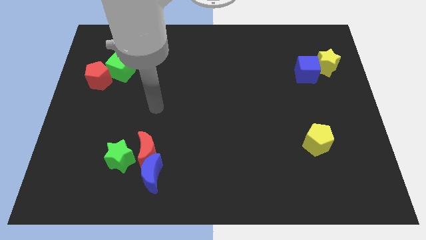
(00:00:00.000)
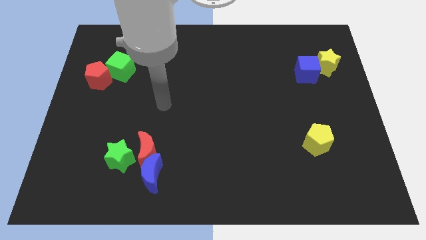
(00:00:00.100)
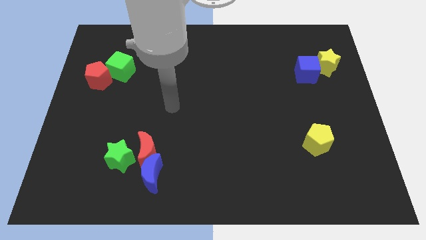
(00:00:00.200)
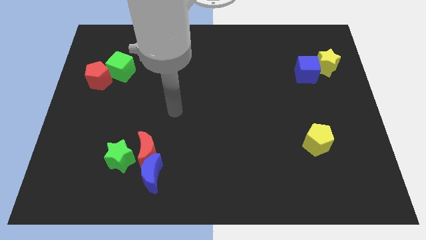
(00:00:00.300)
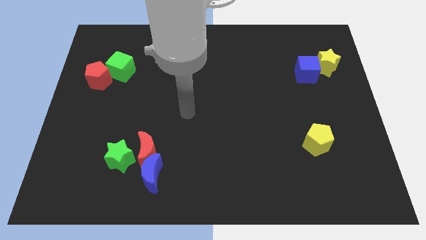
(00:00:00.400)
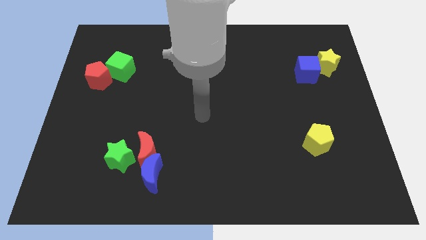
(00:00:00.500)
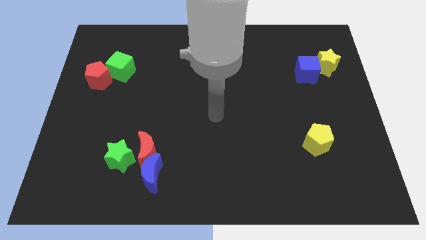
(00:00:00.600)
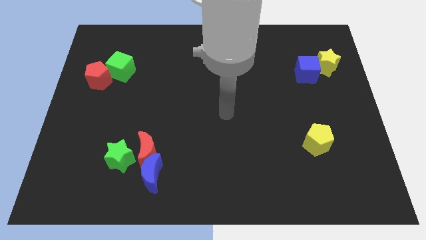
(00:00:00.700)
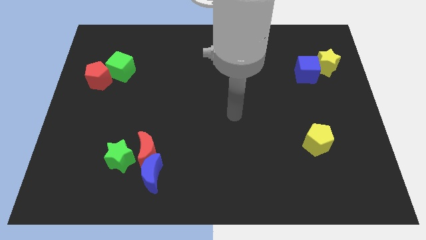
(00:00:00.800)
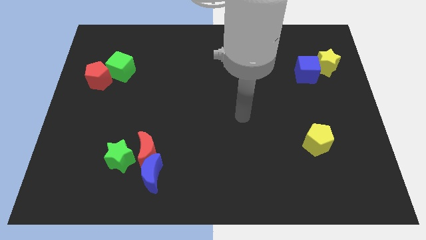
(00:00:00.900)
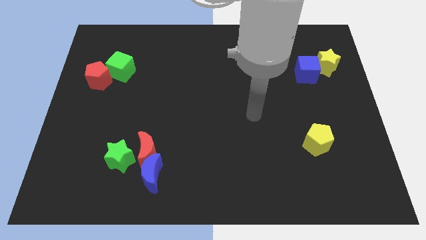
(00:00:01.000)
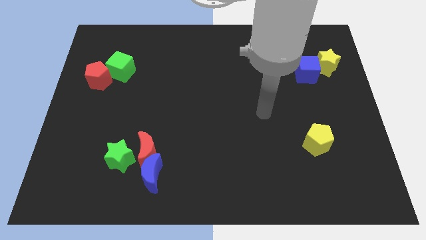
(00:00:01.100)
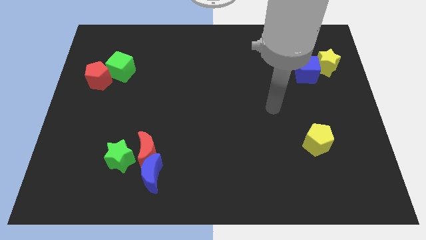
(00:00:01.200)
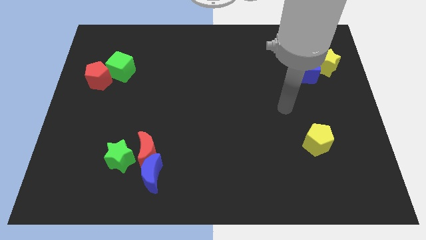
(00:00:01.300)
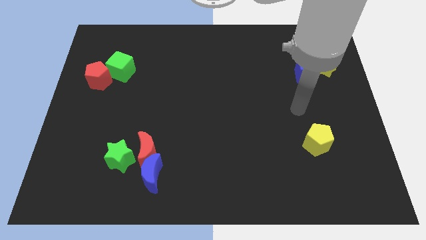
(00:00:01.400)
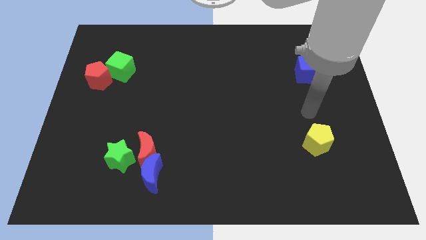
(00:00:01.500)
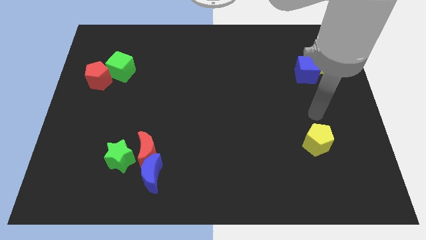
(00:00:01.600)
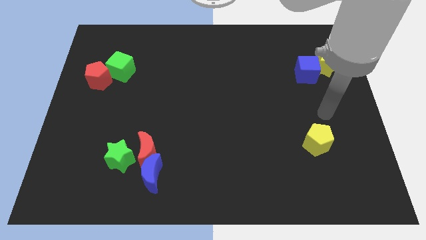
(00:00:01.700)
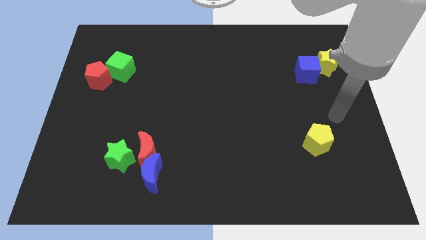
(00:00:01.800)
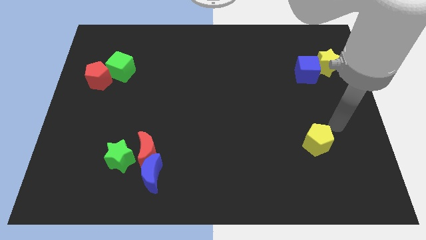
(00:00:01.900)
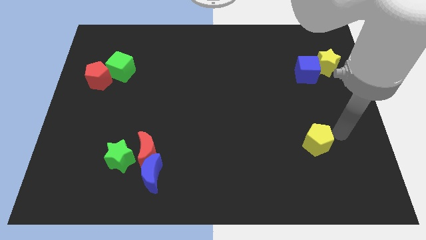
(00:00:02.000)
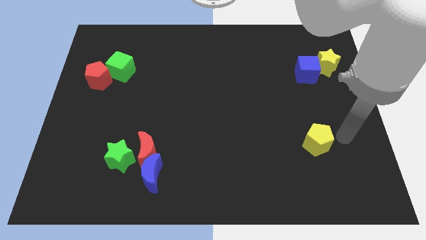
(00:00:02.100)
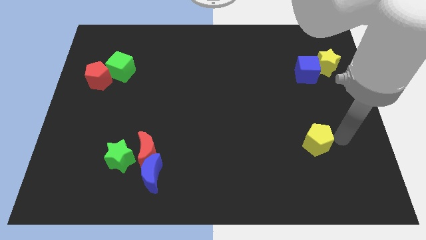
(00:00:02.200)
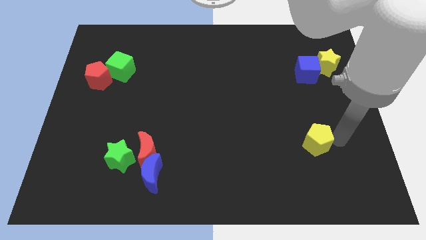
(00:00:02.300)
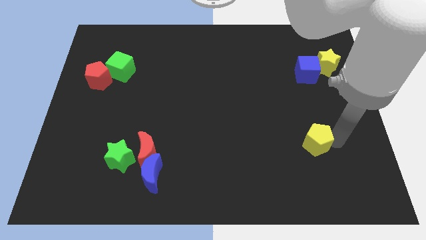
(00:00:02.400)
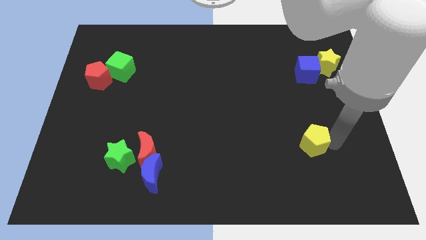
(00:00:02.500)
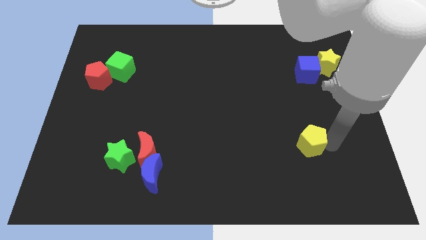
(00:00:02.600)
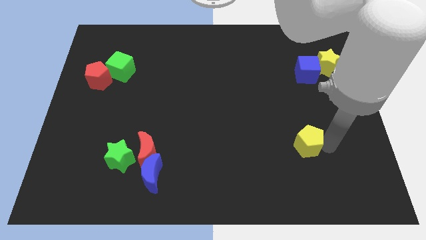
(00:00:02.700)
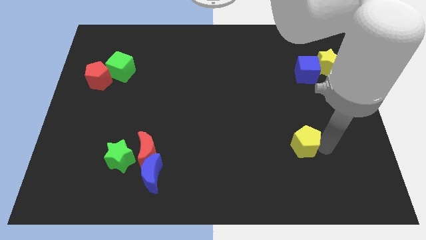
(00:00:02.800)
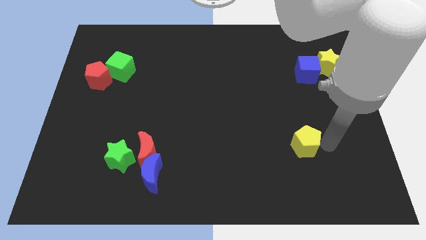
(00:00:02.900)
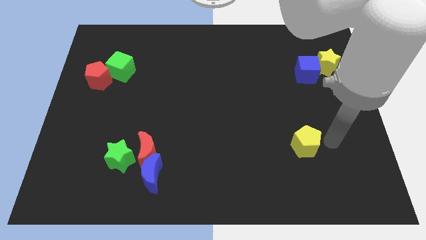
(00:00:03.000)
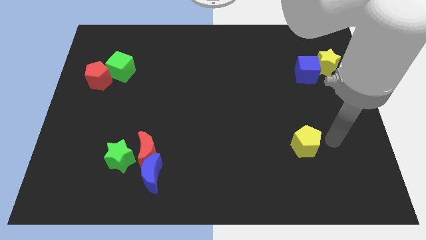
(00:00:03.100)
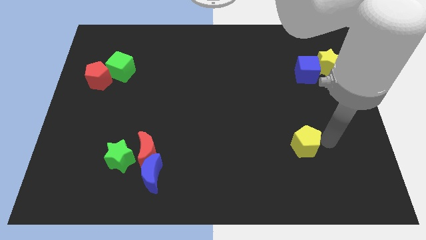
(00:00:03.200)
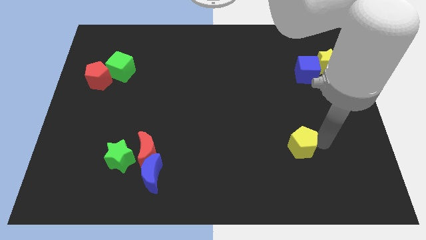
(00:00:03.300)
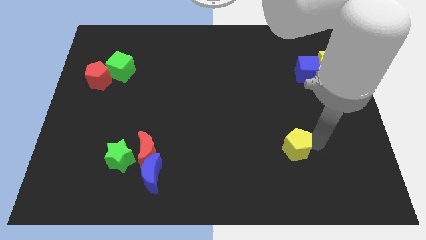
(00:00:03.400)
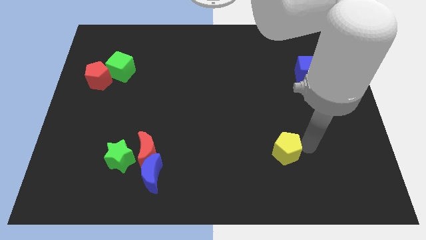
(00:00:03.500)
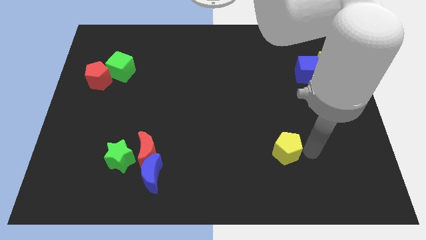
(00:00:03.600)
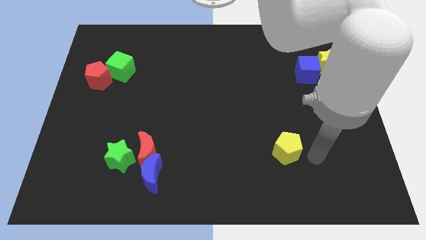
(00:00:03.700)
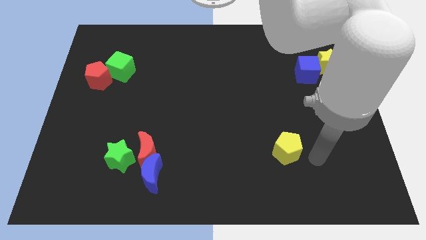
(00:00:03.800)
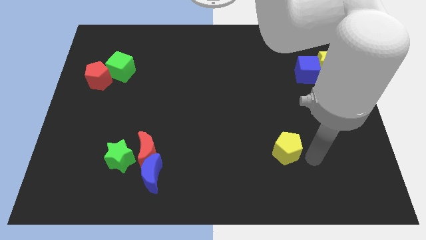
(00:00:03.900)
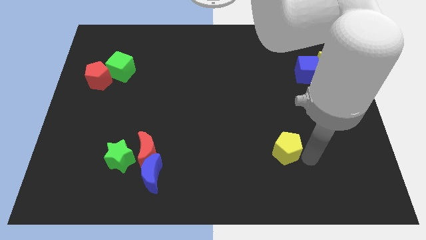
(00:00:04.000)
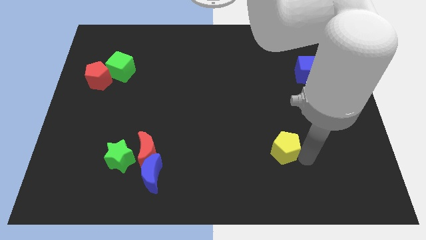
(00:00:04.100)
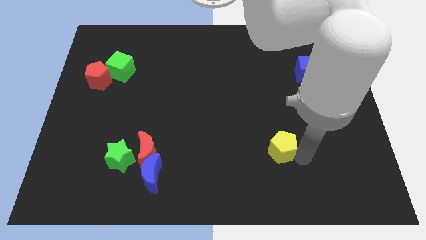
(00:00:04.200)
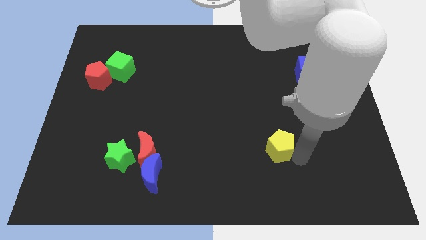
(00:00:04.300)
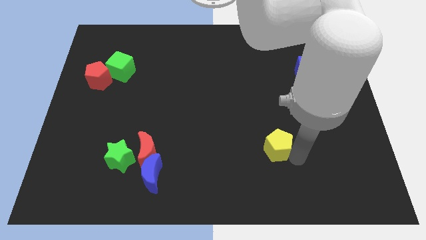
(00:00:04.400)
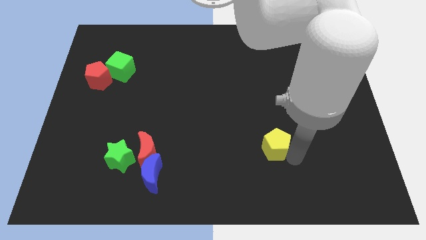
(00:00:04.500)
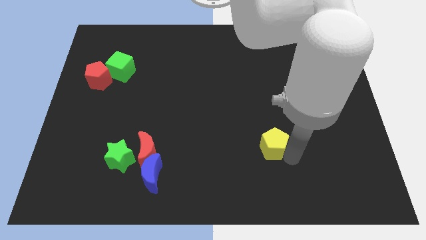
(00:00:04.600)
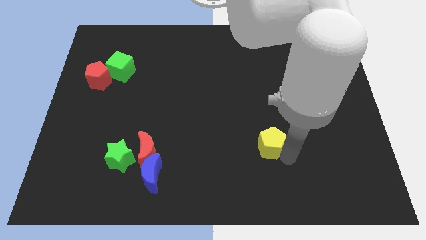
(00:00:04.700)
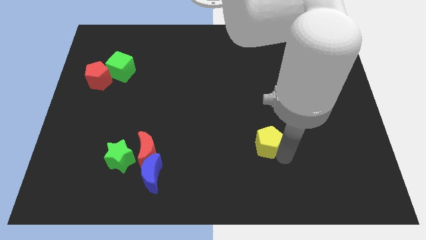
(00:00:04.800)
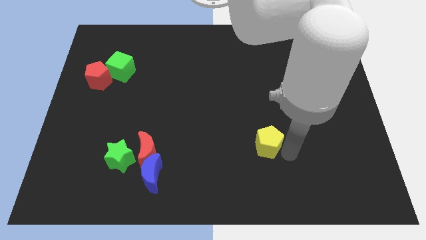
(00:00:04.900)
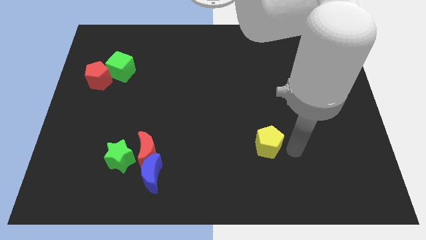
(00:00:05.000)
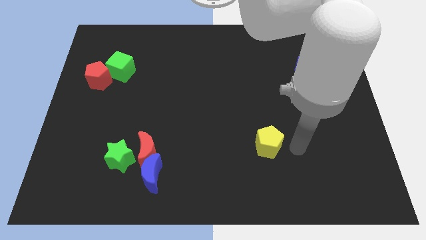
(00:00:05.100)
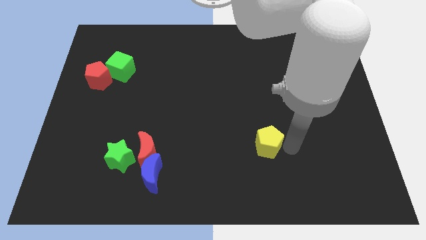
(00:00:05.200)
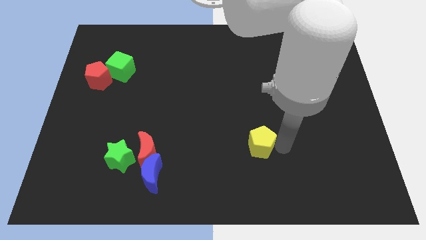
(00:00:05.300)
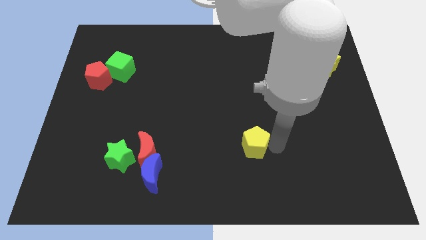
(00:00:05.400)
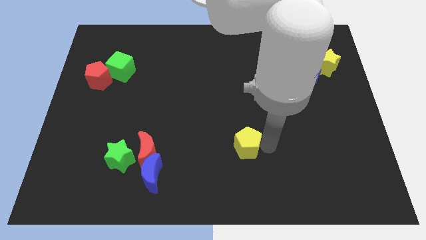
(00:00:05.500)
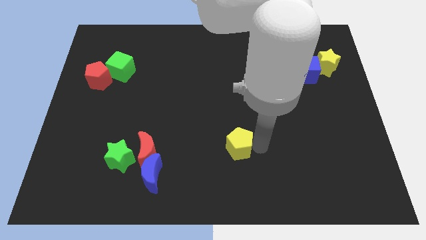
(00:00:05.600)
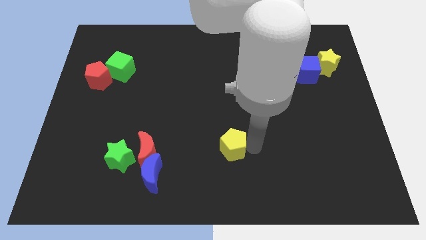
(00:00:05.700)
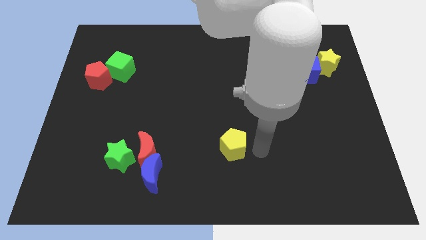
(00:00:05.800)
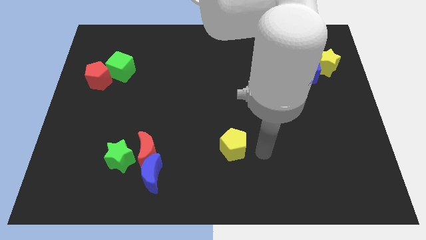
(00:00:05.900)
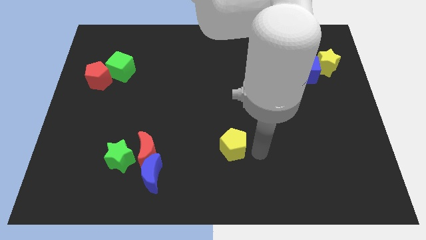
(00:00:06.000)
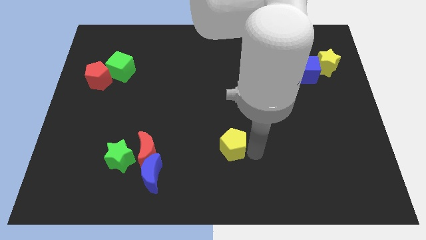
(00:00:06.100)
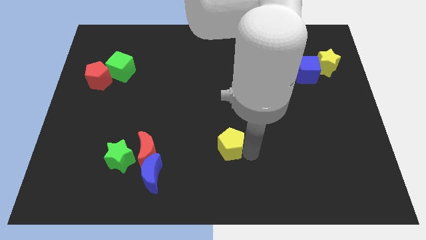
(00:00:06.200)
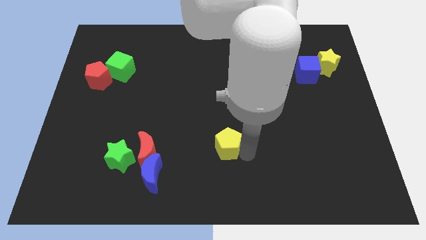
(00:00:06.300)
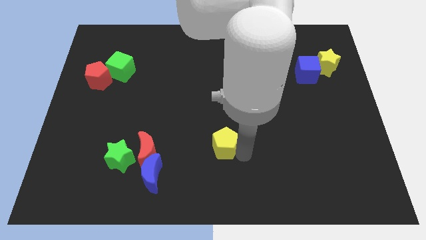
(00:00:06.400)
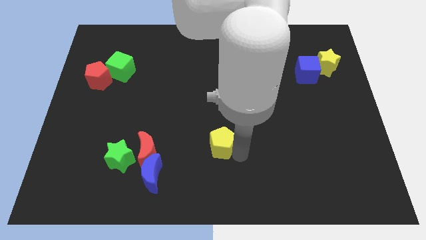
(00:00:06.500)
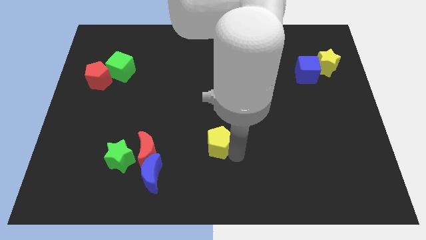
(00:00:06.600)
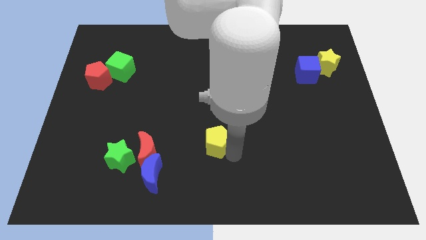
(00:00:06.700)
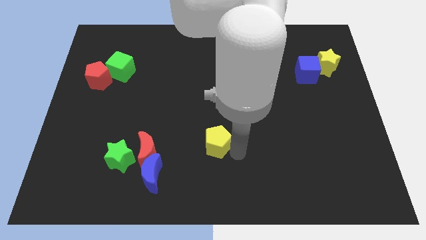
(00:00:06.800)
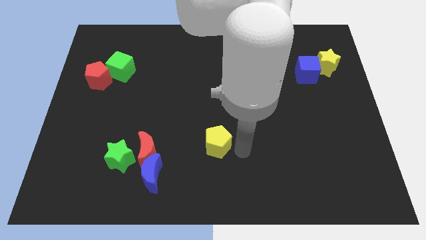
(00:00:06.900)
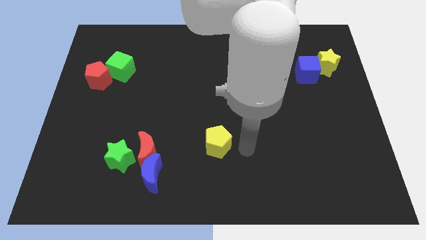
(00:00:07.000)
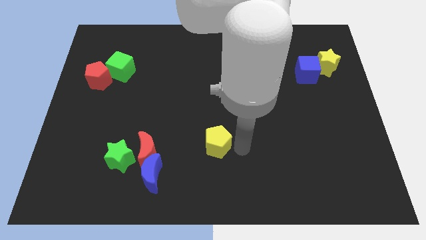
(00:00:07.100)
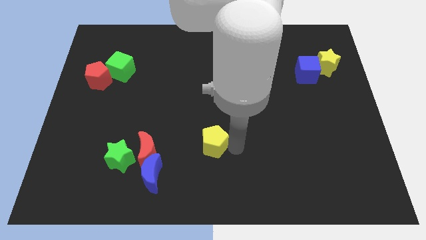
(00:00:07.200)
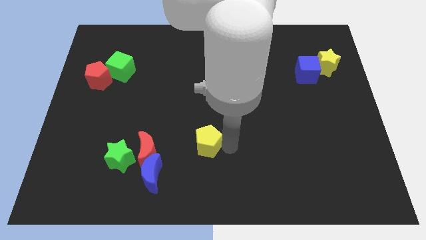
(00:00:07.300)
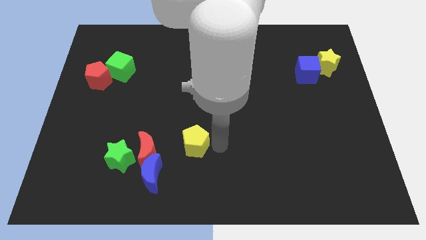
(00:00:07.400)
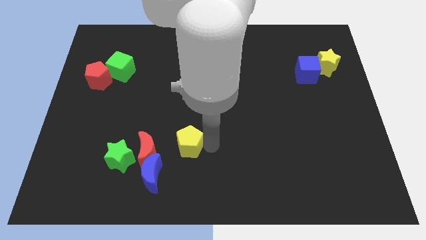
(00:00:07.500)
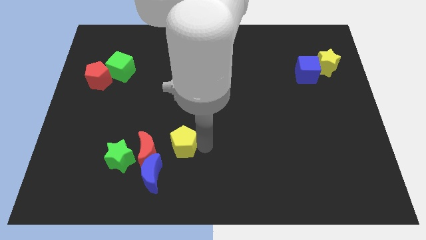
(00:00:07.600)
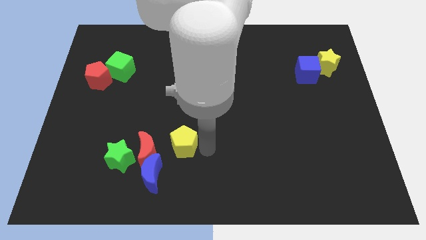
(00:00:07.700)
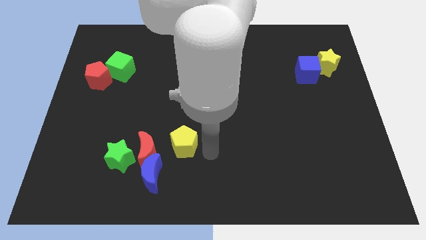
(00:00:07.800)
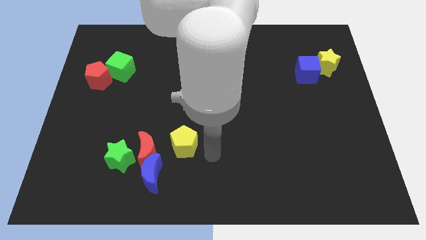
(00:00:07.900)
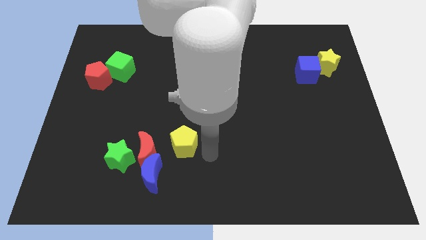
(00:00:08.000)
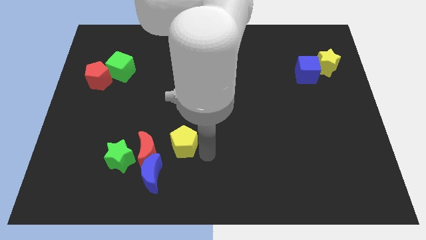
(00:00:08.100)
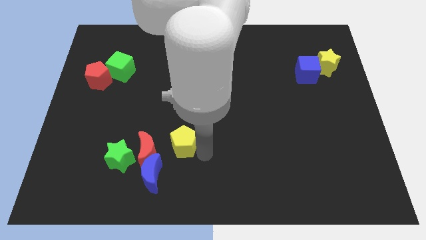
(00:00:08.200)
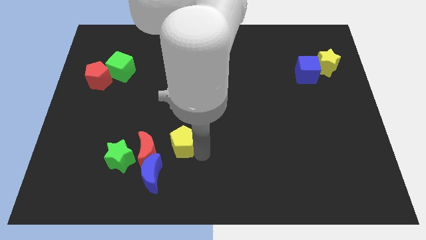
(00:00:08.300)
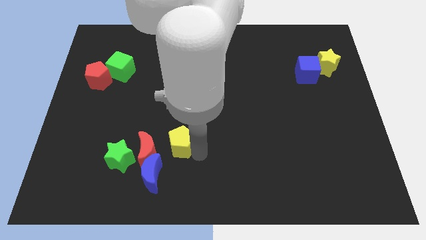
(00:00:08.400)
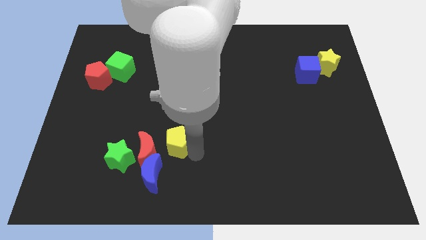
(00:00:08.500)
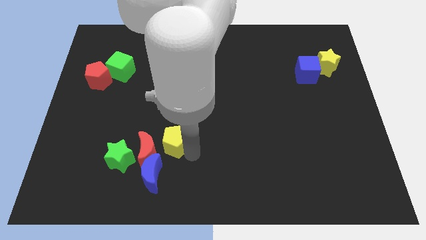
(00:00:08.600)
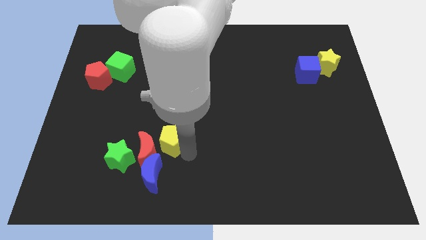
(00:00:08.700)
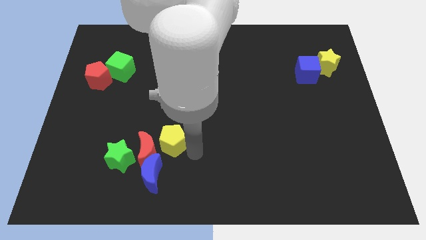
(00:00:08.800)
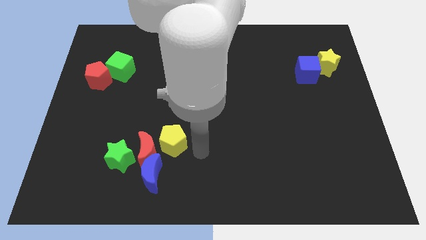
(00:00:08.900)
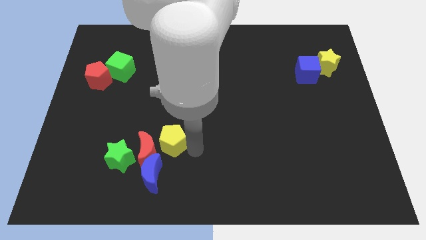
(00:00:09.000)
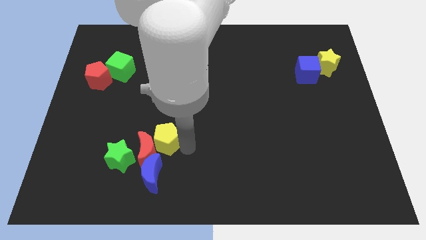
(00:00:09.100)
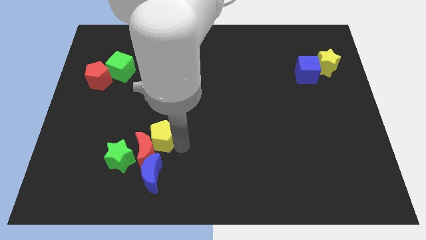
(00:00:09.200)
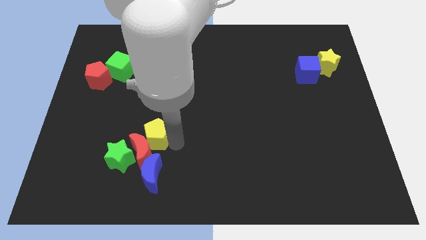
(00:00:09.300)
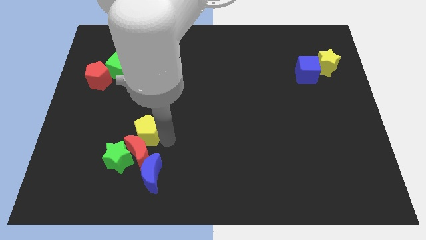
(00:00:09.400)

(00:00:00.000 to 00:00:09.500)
slide the yellow pentagon to the top left side of the red moon
